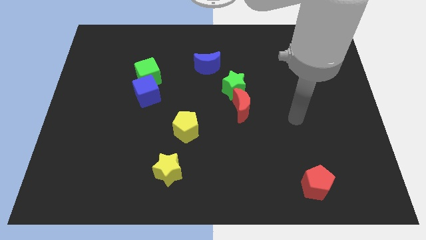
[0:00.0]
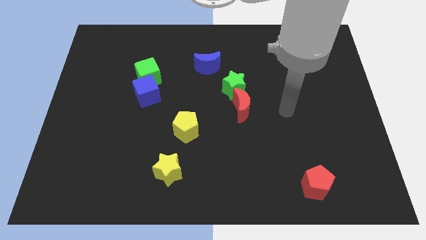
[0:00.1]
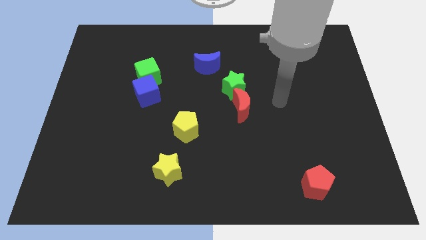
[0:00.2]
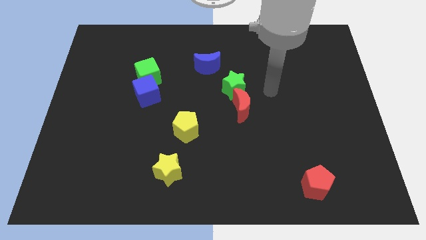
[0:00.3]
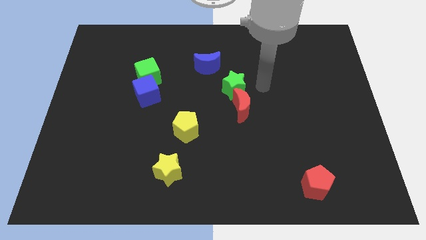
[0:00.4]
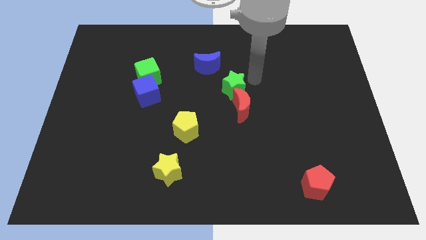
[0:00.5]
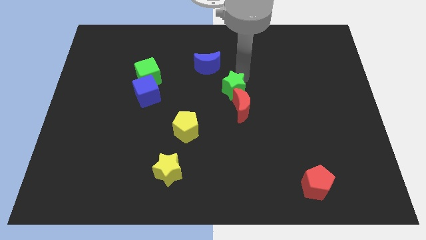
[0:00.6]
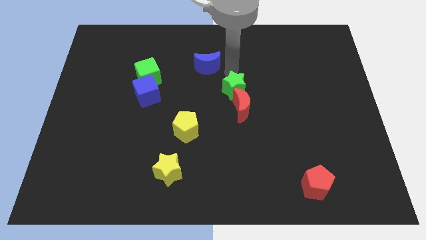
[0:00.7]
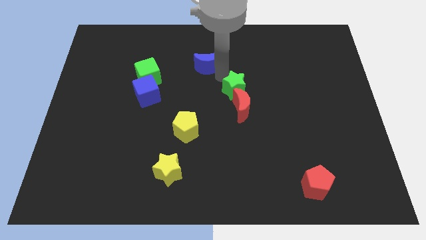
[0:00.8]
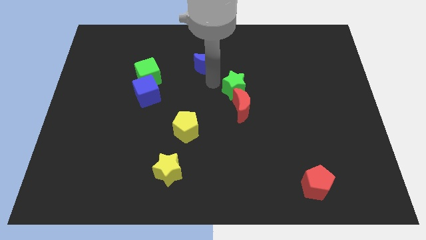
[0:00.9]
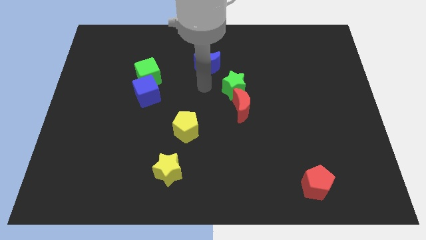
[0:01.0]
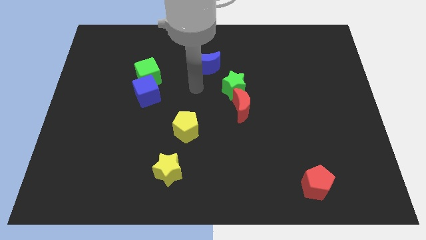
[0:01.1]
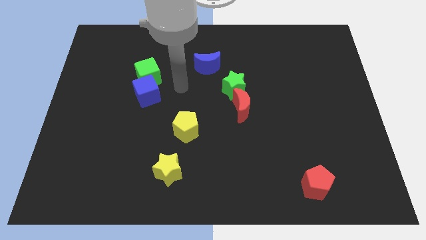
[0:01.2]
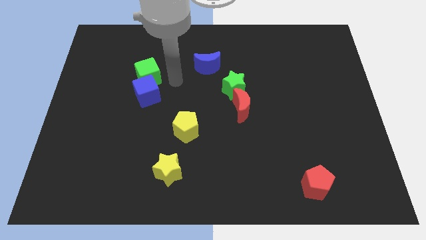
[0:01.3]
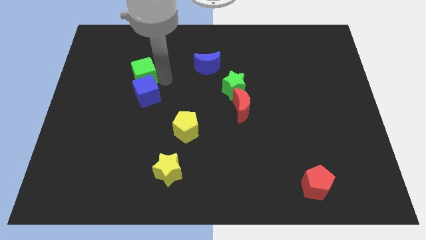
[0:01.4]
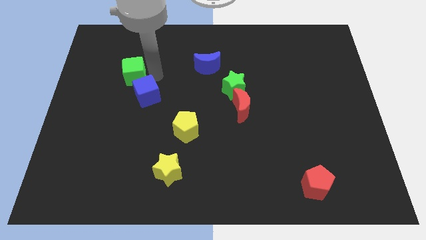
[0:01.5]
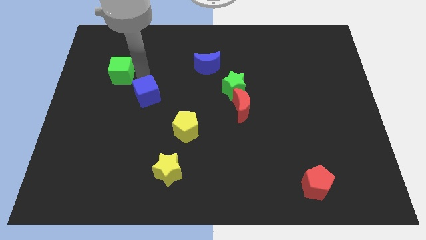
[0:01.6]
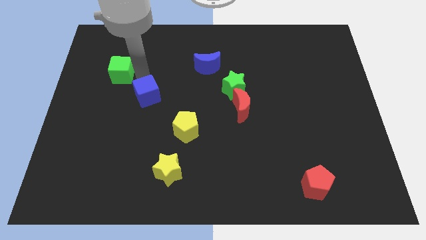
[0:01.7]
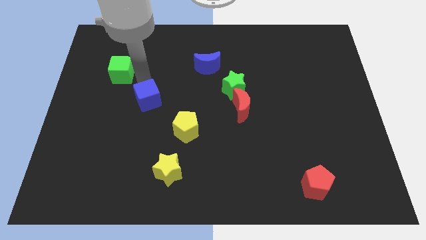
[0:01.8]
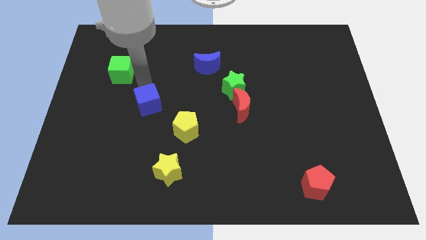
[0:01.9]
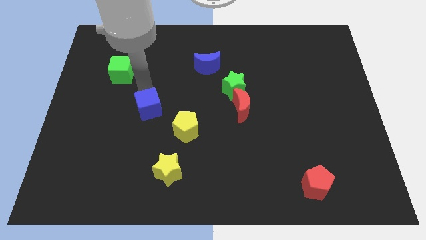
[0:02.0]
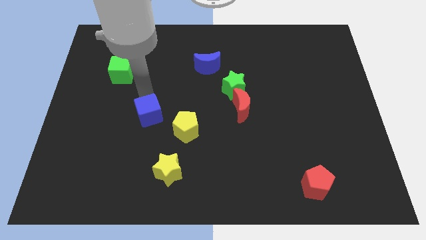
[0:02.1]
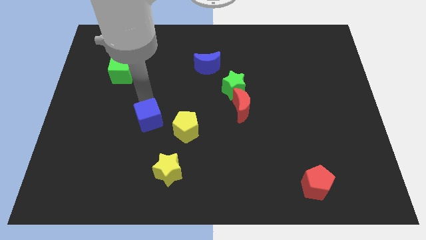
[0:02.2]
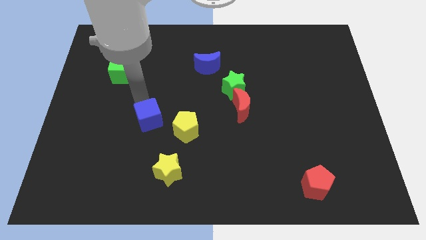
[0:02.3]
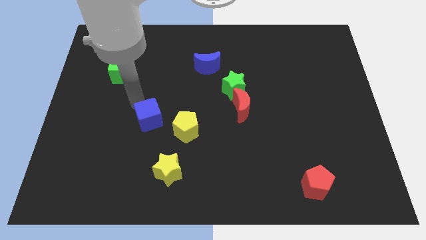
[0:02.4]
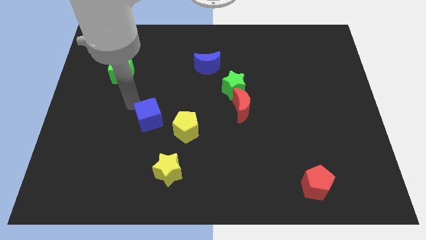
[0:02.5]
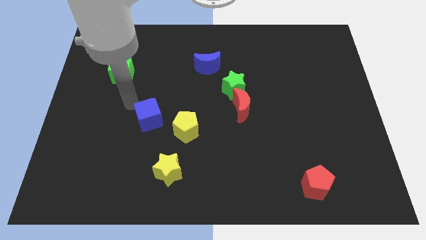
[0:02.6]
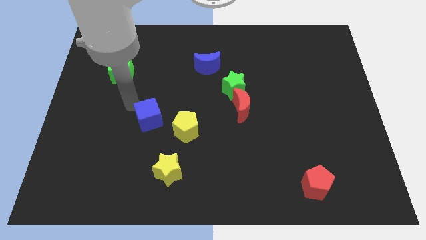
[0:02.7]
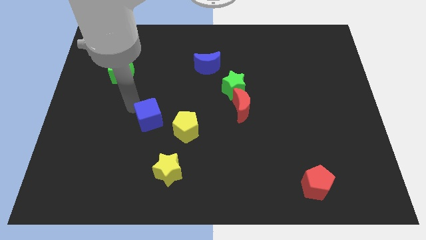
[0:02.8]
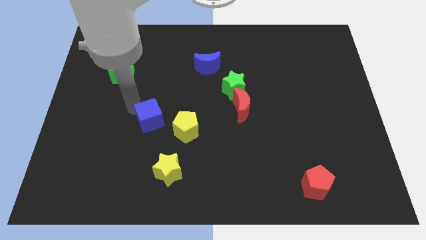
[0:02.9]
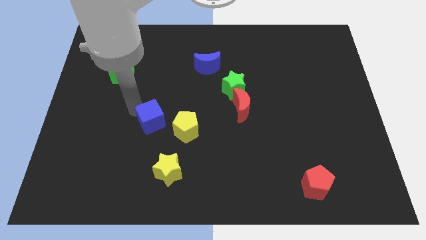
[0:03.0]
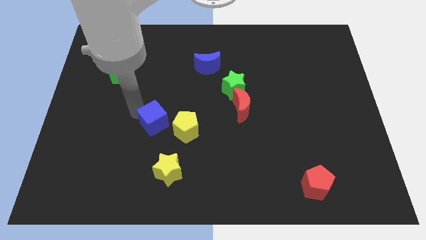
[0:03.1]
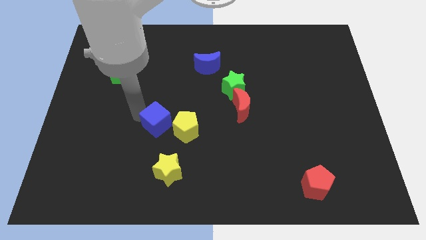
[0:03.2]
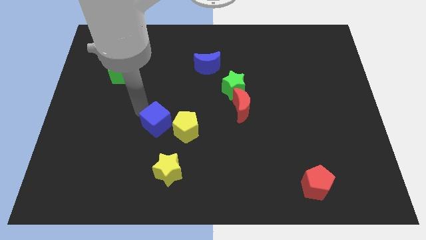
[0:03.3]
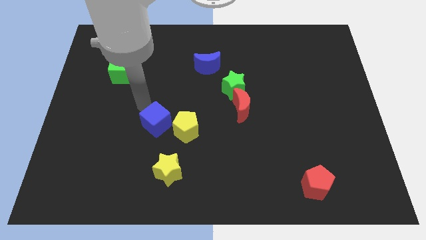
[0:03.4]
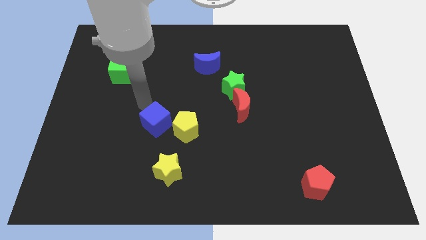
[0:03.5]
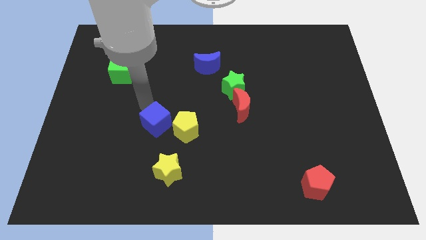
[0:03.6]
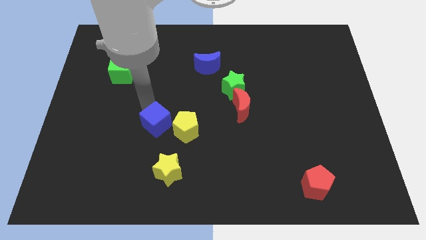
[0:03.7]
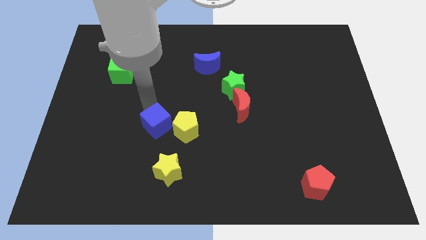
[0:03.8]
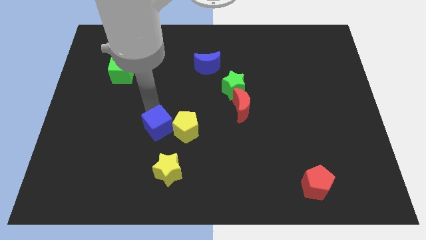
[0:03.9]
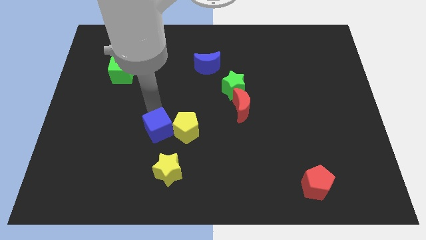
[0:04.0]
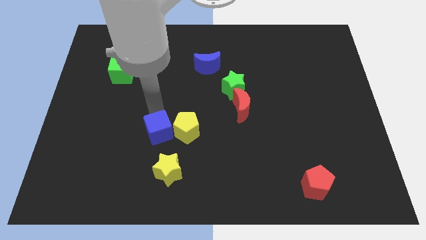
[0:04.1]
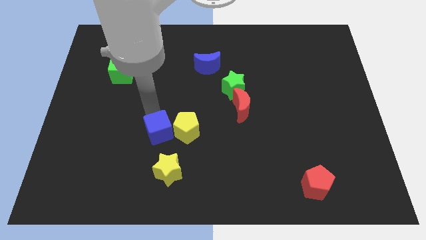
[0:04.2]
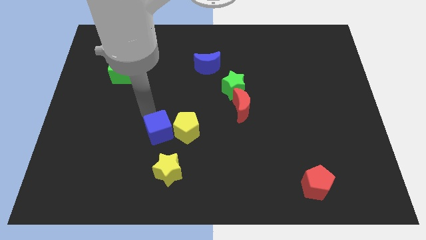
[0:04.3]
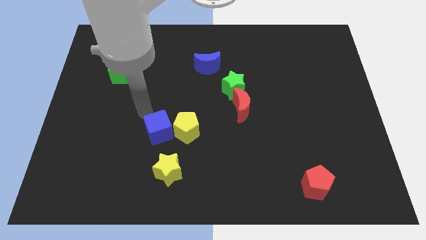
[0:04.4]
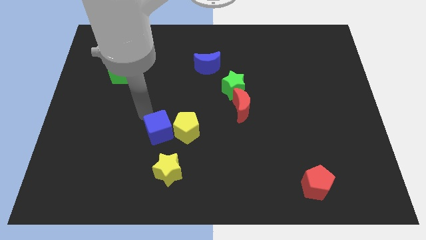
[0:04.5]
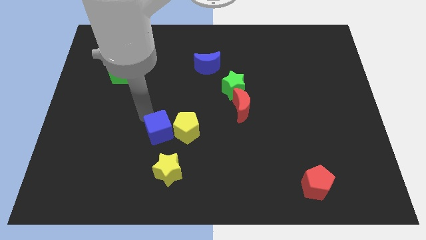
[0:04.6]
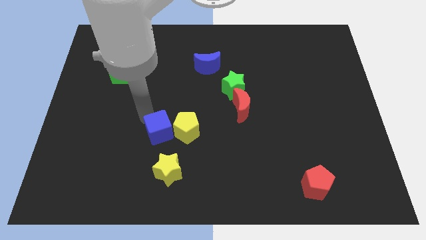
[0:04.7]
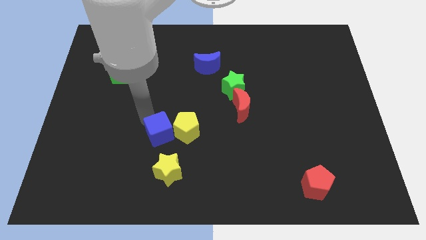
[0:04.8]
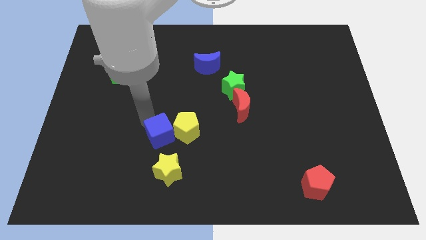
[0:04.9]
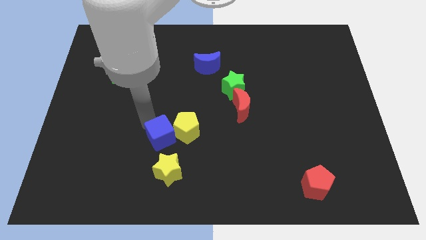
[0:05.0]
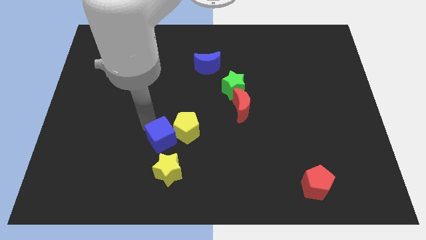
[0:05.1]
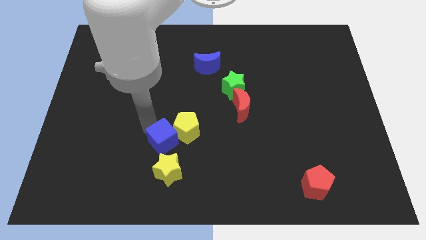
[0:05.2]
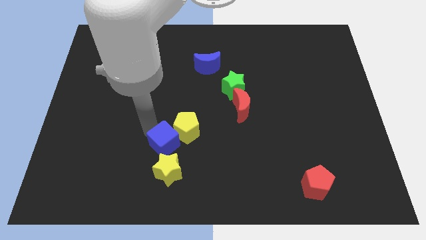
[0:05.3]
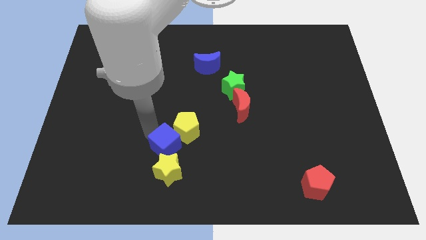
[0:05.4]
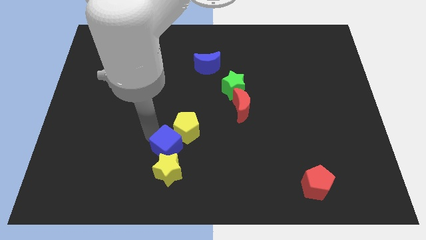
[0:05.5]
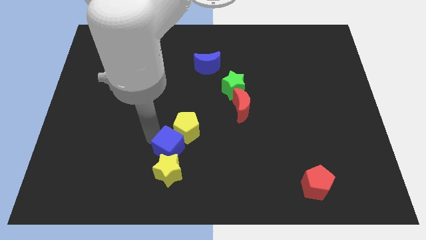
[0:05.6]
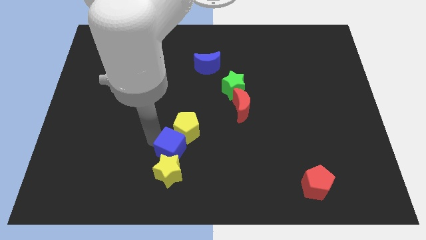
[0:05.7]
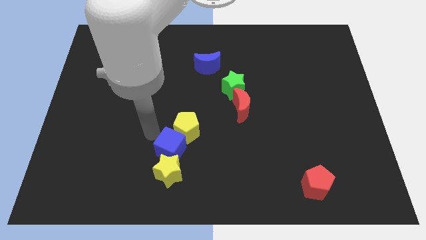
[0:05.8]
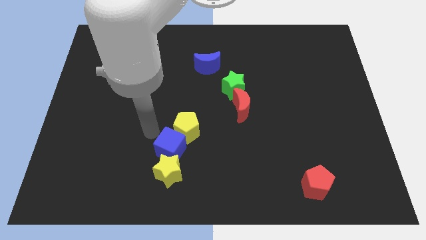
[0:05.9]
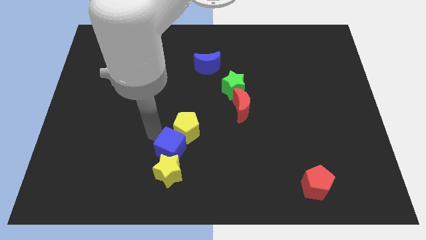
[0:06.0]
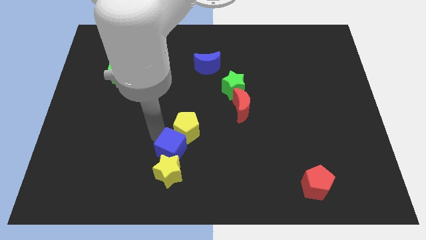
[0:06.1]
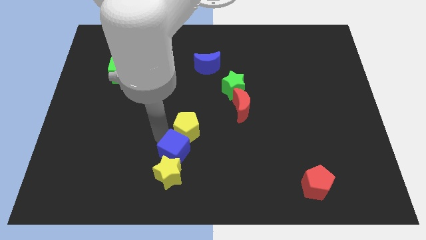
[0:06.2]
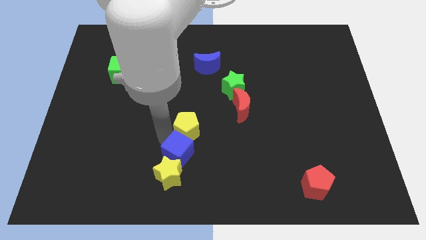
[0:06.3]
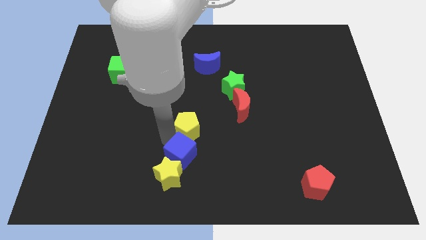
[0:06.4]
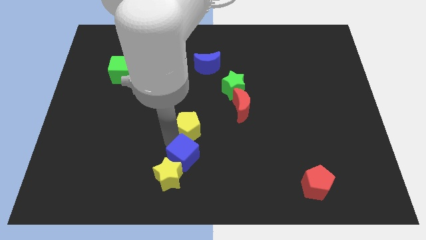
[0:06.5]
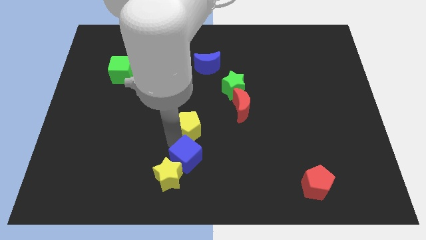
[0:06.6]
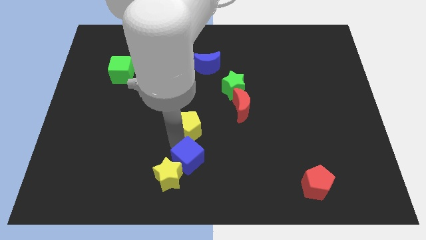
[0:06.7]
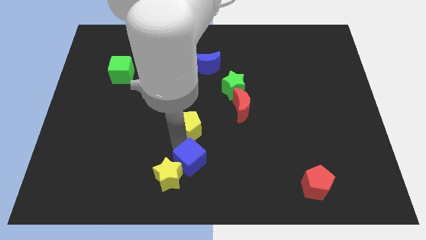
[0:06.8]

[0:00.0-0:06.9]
push the blue cube downwards and right diagonally

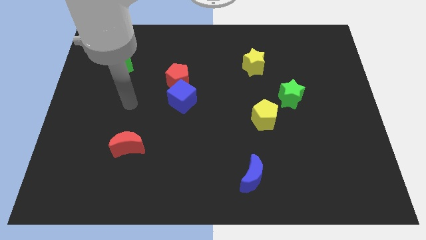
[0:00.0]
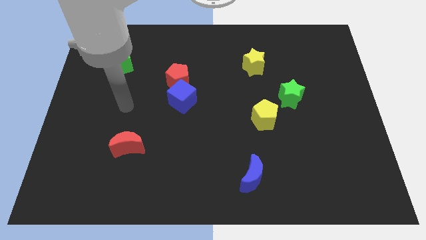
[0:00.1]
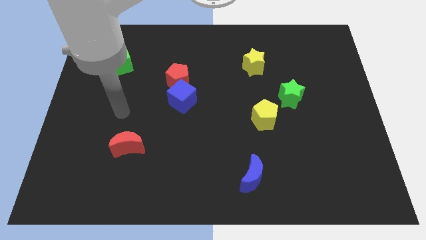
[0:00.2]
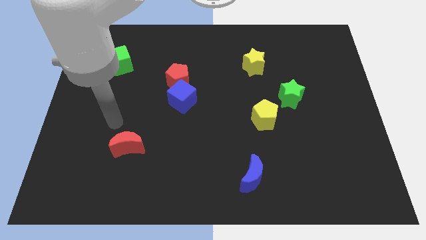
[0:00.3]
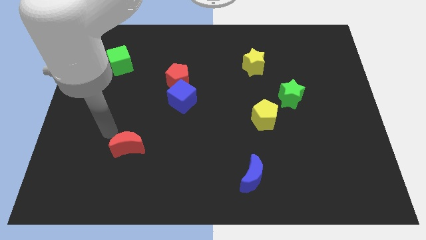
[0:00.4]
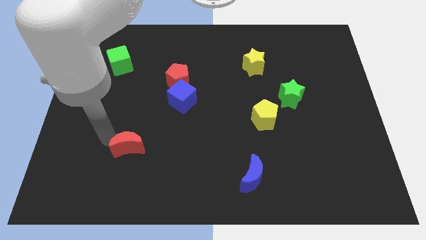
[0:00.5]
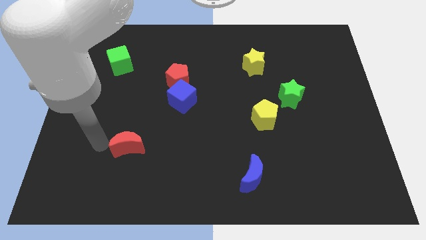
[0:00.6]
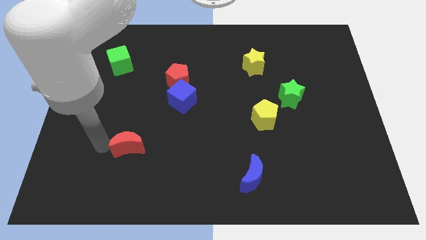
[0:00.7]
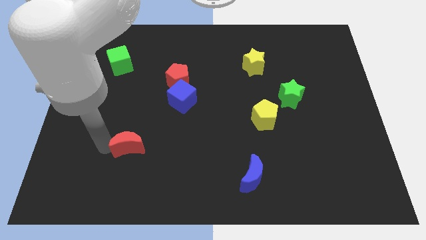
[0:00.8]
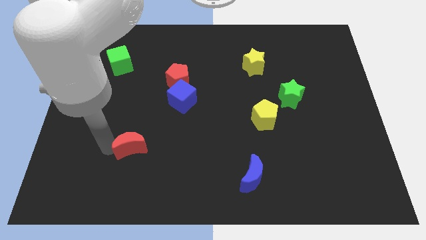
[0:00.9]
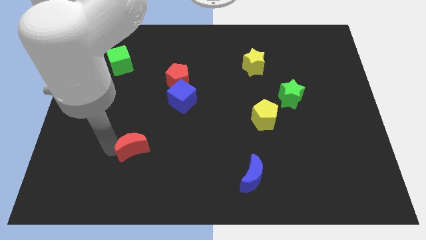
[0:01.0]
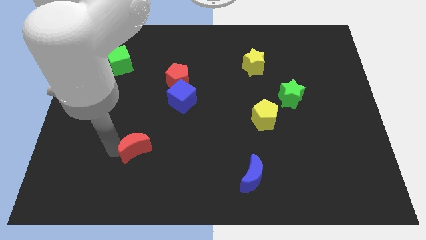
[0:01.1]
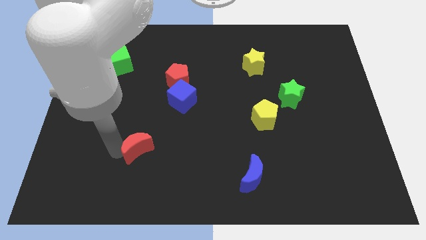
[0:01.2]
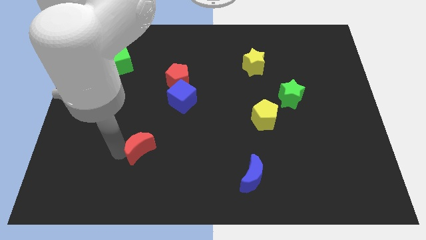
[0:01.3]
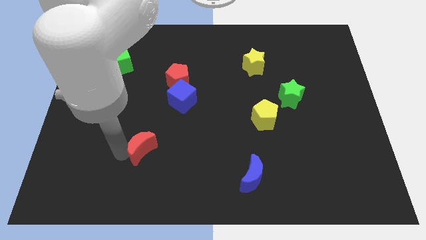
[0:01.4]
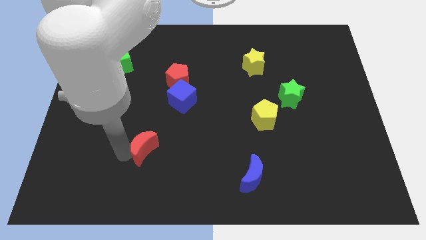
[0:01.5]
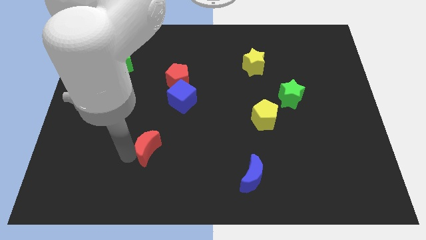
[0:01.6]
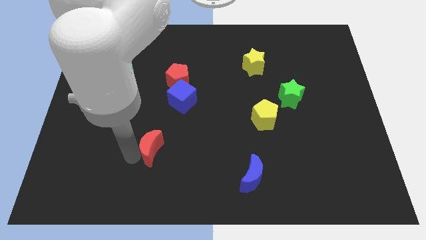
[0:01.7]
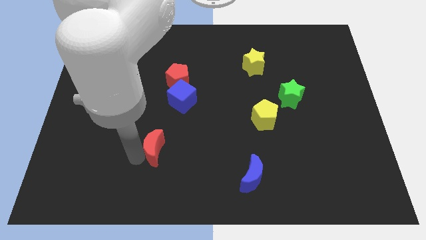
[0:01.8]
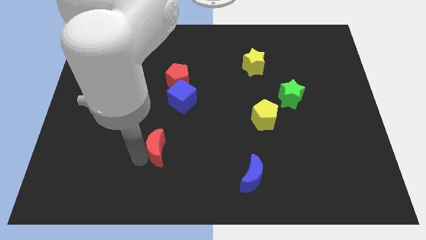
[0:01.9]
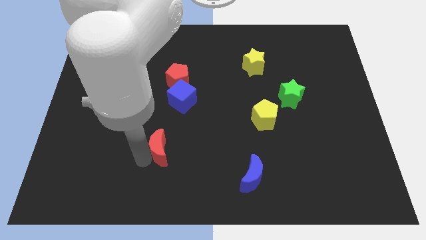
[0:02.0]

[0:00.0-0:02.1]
slightly slide the red moon to the right
